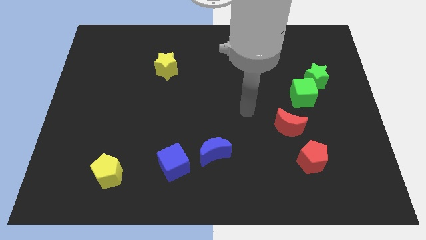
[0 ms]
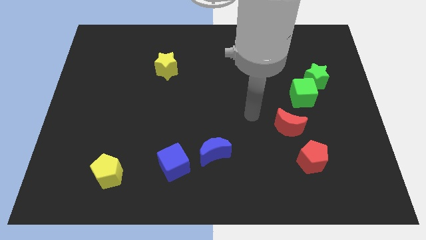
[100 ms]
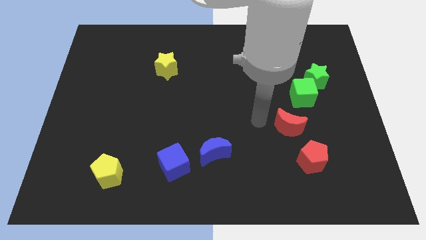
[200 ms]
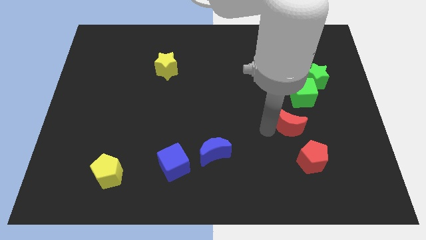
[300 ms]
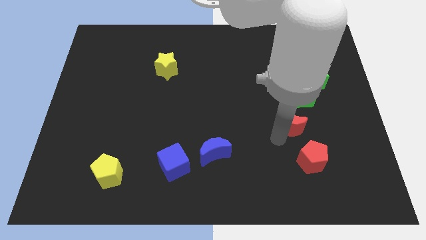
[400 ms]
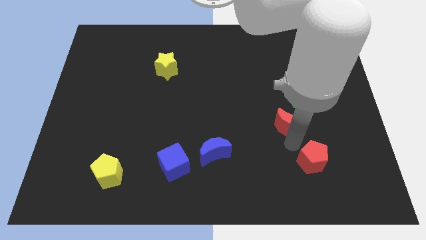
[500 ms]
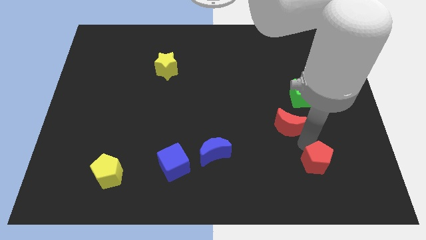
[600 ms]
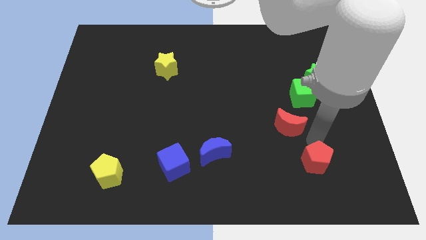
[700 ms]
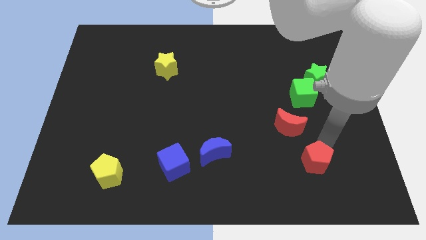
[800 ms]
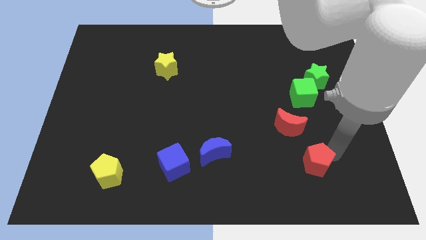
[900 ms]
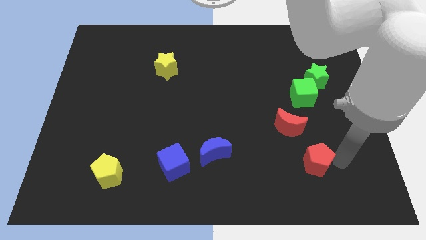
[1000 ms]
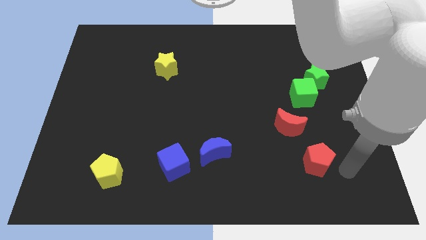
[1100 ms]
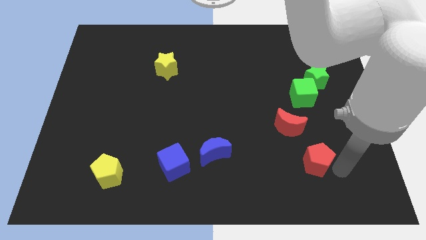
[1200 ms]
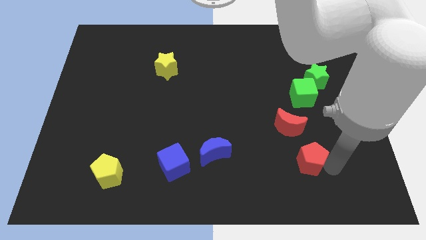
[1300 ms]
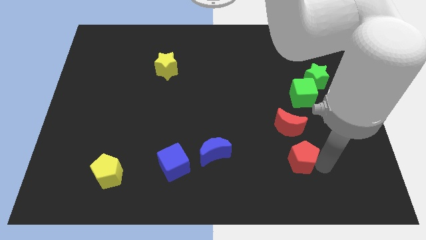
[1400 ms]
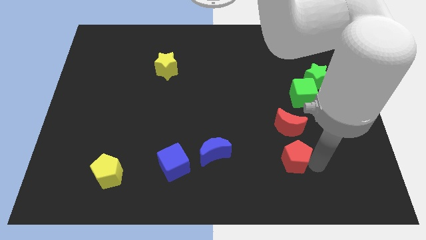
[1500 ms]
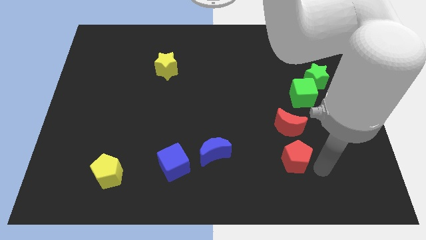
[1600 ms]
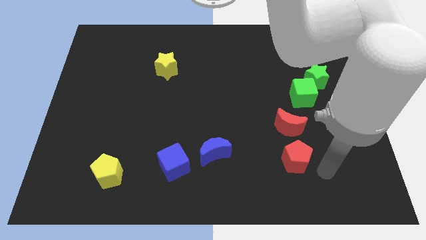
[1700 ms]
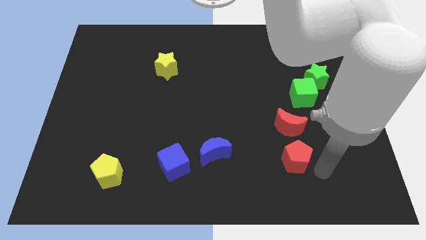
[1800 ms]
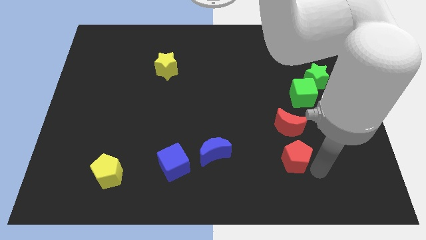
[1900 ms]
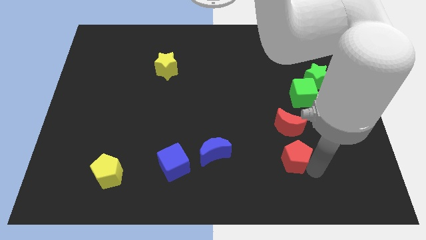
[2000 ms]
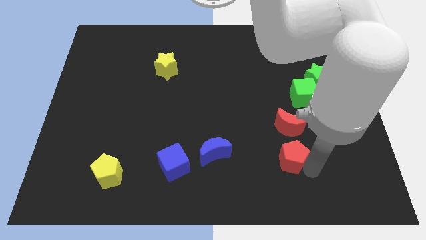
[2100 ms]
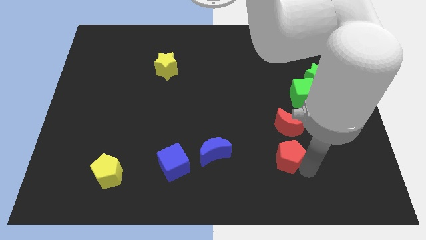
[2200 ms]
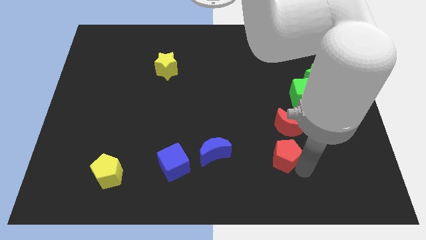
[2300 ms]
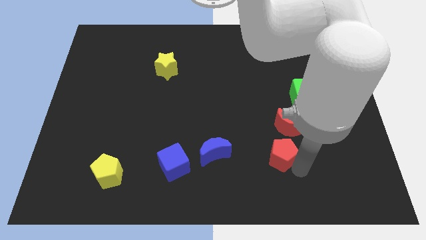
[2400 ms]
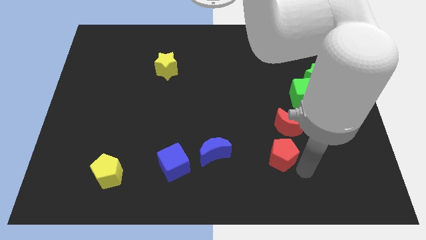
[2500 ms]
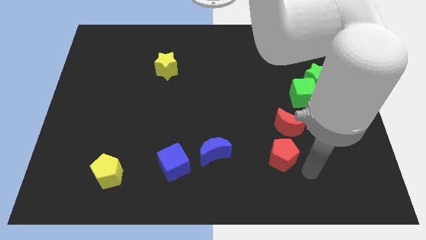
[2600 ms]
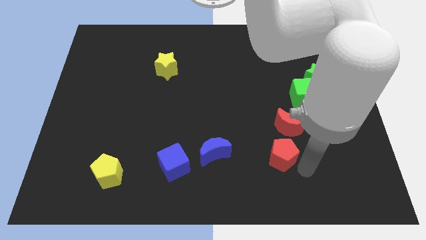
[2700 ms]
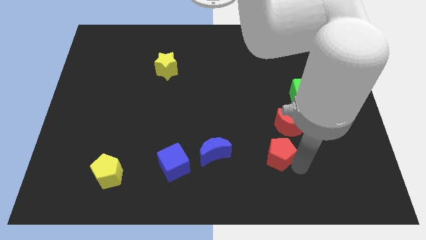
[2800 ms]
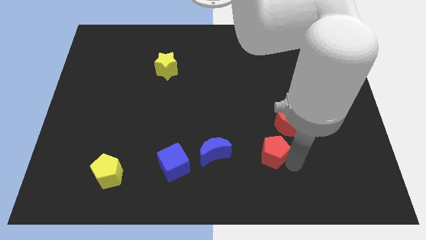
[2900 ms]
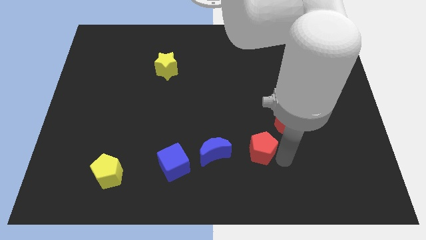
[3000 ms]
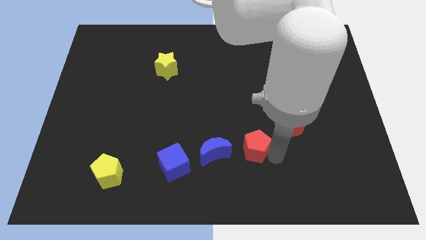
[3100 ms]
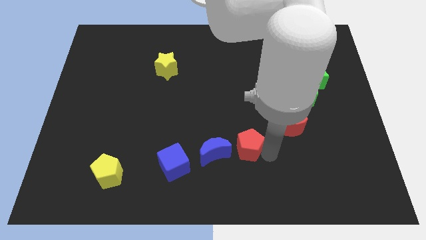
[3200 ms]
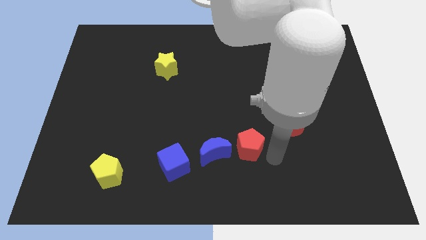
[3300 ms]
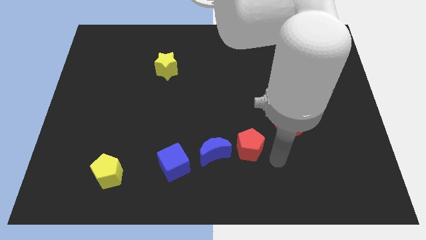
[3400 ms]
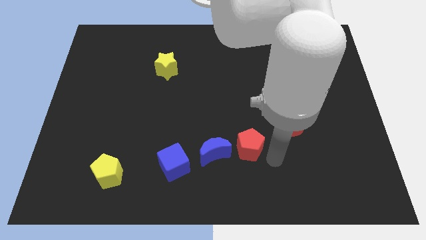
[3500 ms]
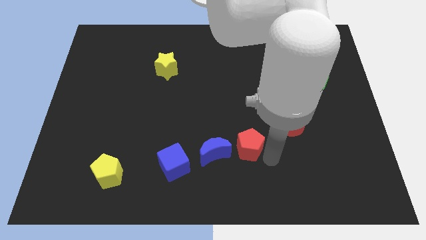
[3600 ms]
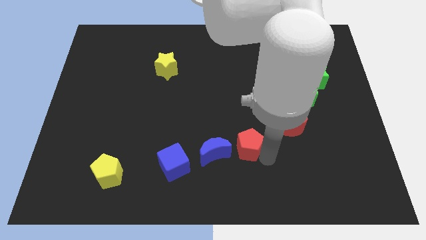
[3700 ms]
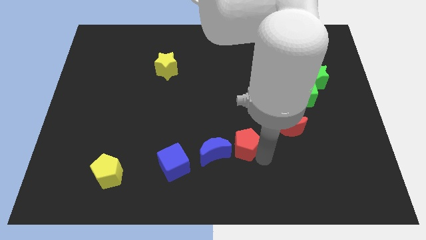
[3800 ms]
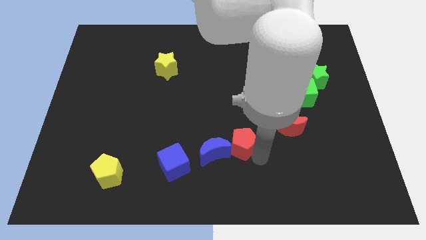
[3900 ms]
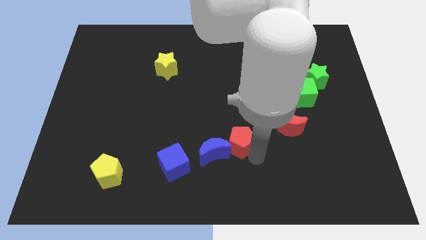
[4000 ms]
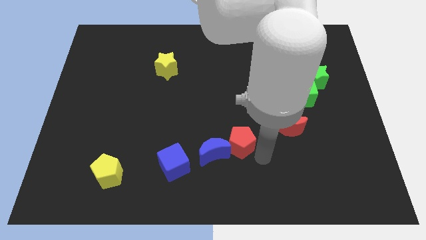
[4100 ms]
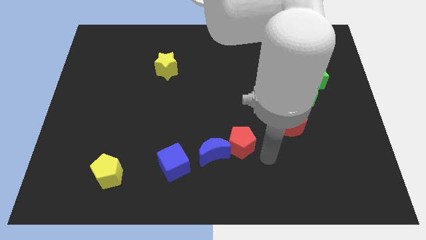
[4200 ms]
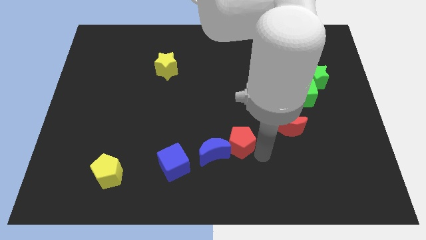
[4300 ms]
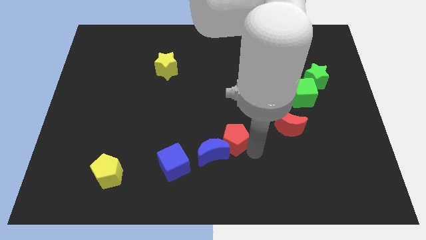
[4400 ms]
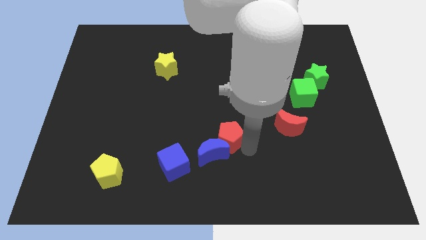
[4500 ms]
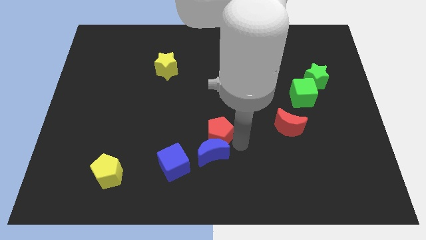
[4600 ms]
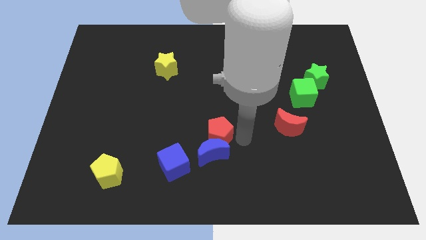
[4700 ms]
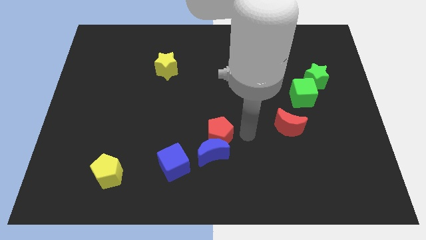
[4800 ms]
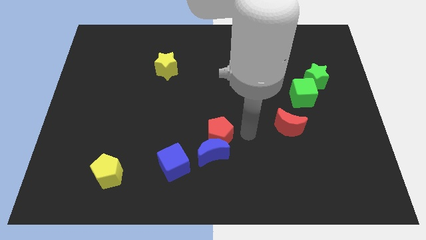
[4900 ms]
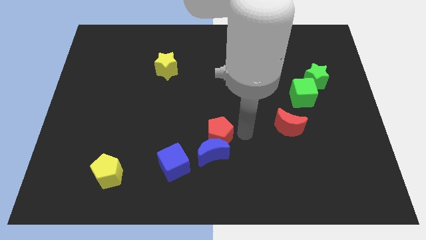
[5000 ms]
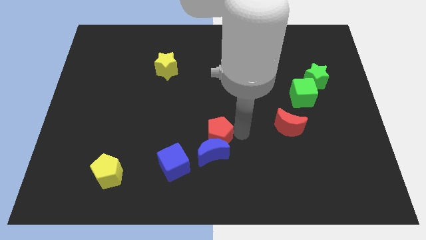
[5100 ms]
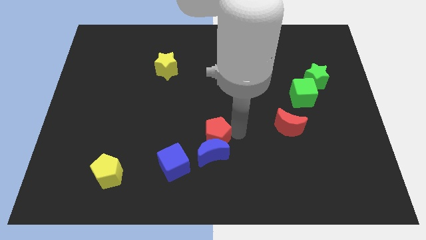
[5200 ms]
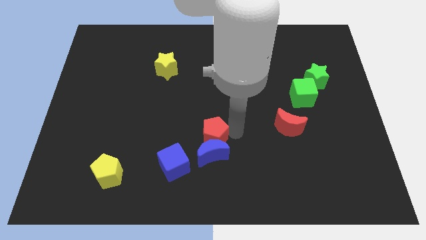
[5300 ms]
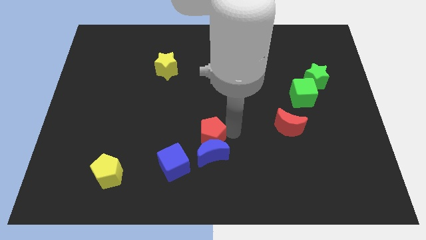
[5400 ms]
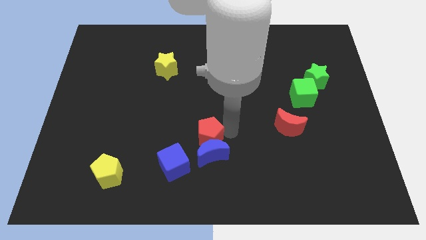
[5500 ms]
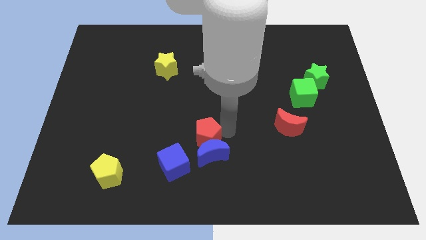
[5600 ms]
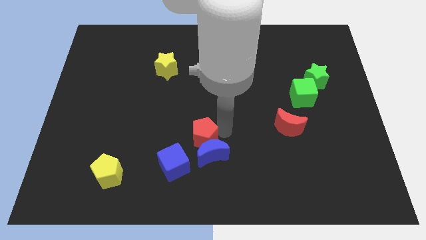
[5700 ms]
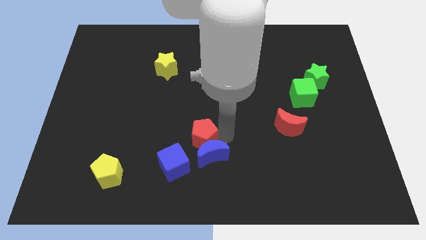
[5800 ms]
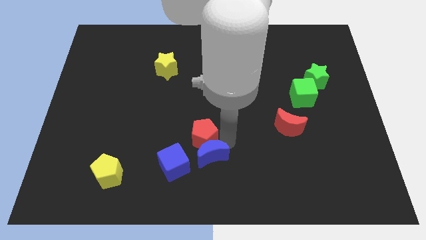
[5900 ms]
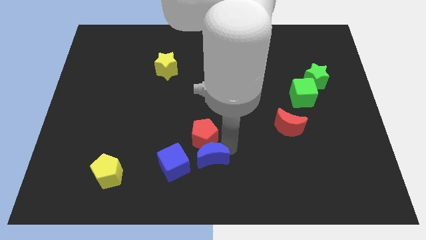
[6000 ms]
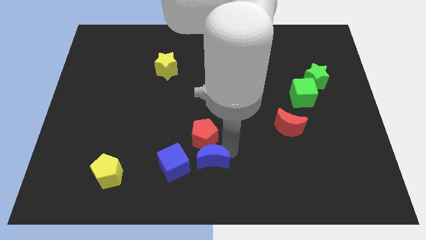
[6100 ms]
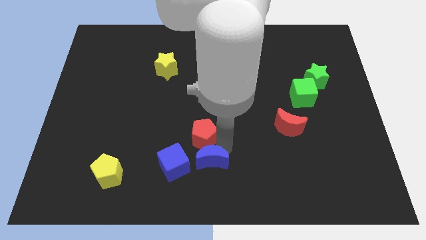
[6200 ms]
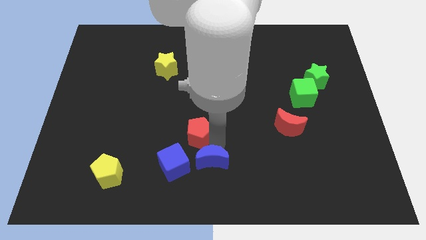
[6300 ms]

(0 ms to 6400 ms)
push the red pentagon above the blue cube

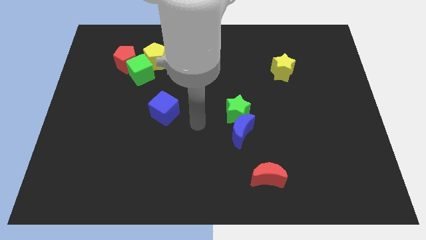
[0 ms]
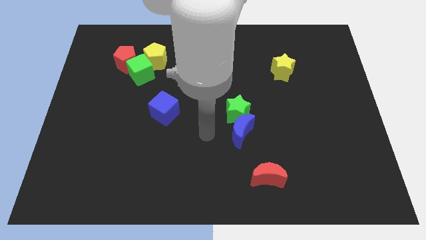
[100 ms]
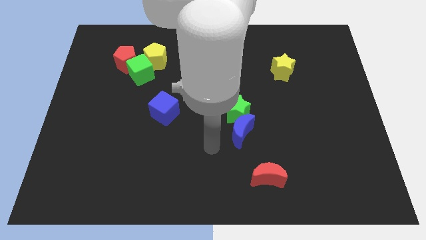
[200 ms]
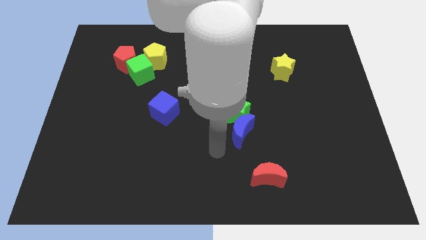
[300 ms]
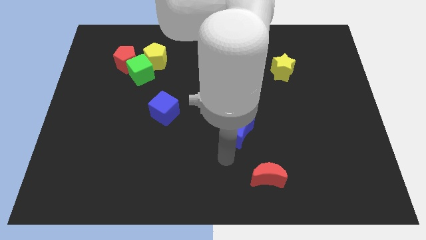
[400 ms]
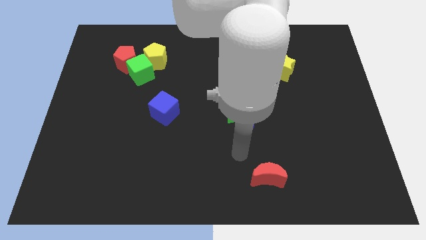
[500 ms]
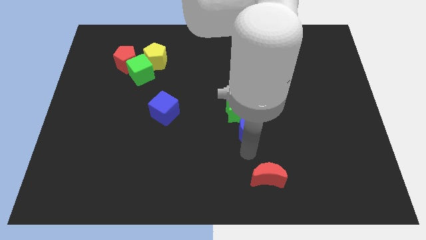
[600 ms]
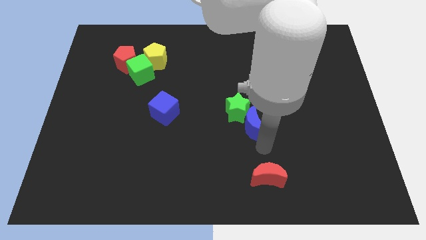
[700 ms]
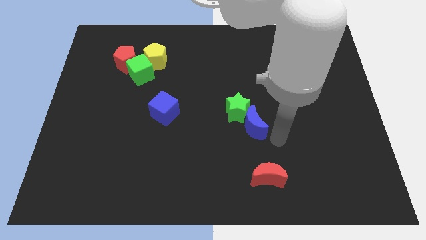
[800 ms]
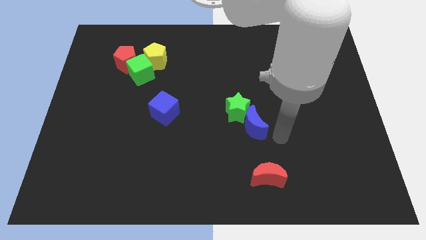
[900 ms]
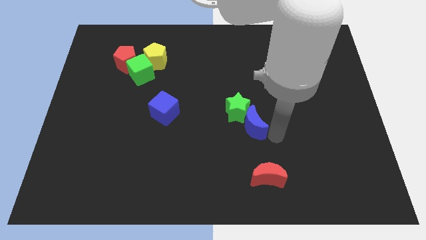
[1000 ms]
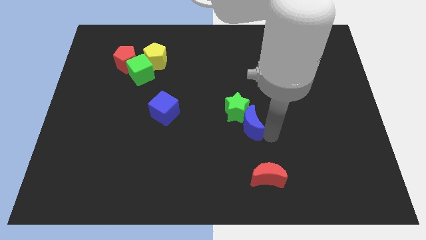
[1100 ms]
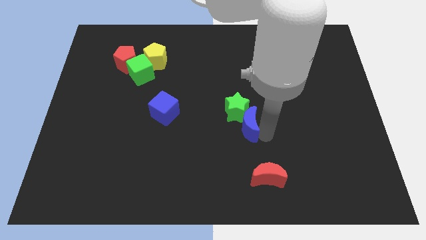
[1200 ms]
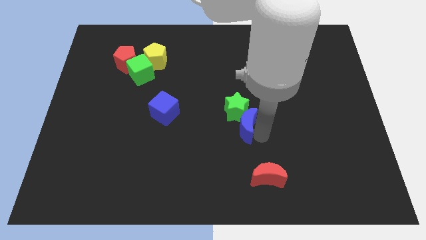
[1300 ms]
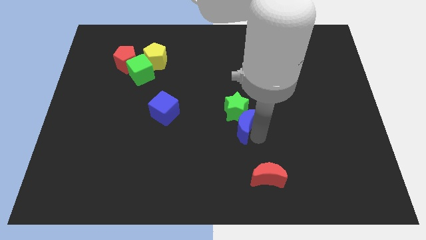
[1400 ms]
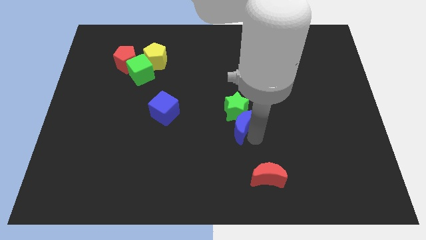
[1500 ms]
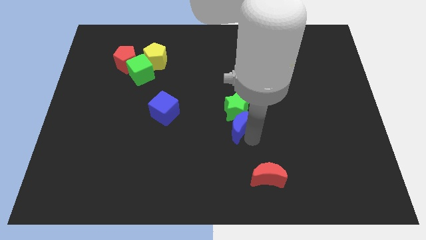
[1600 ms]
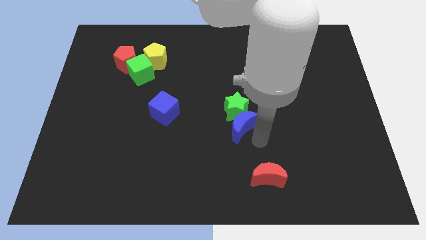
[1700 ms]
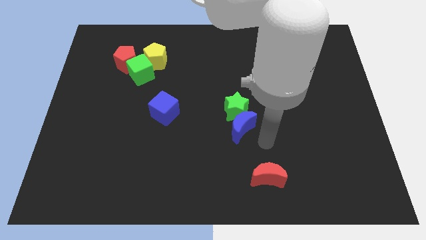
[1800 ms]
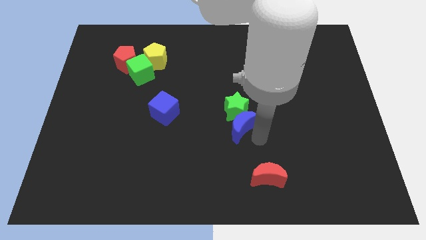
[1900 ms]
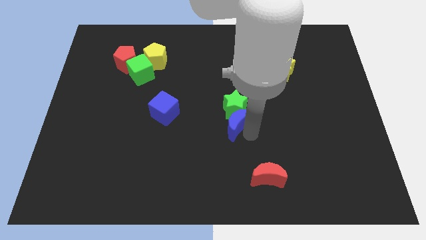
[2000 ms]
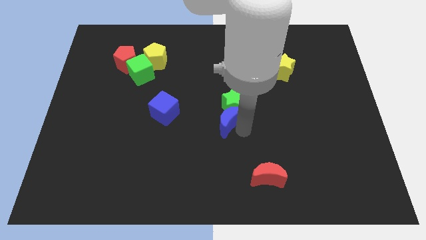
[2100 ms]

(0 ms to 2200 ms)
move the blue moon just right of the blue cube
